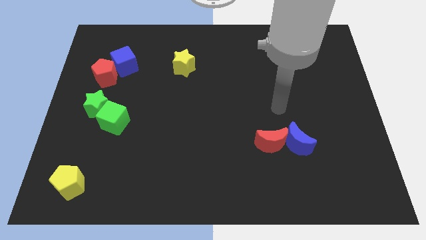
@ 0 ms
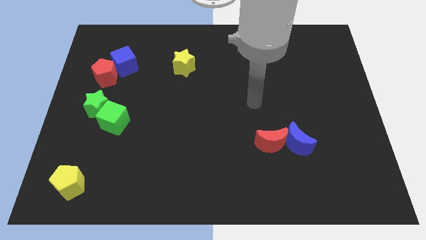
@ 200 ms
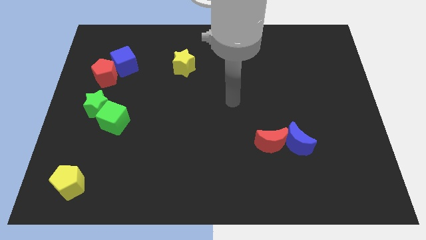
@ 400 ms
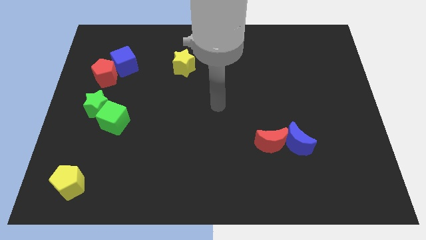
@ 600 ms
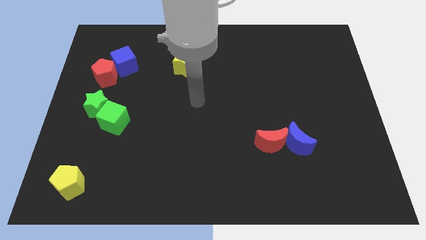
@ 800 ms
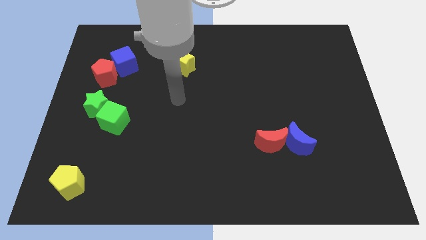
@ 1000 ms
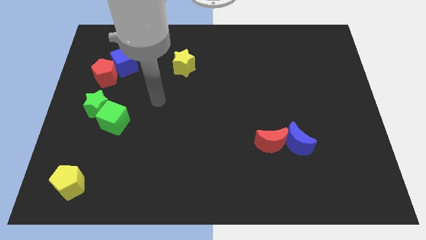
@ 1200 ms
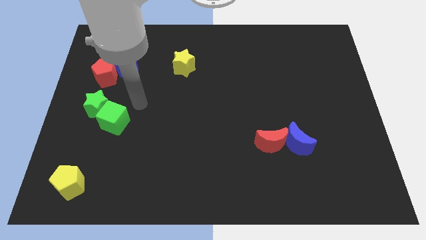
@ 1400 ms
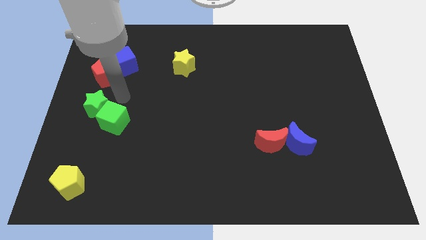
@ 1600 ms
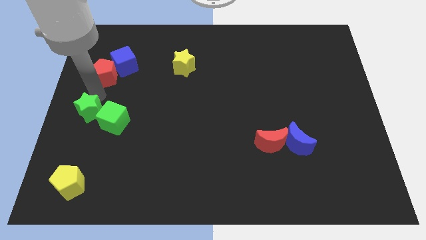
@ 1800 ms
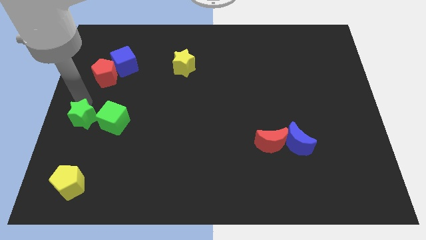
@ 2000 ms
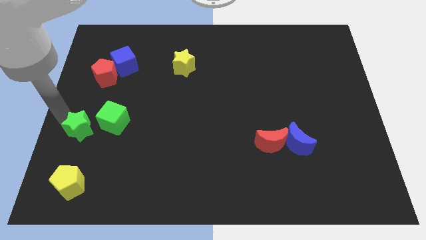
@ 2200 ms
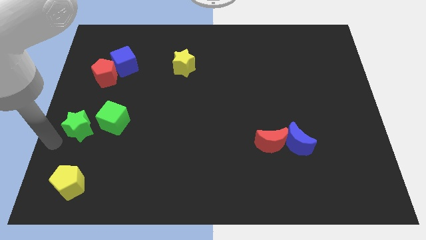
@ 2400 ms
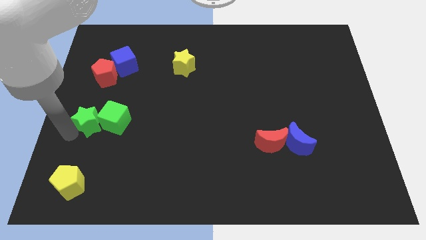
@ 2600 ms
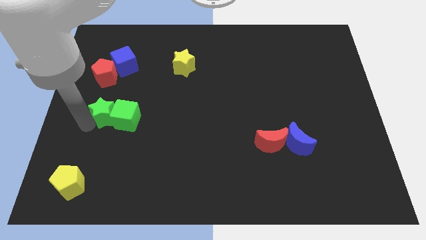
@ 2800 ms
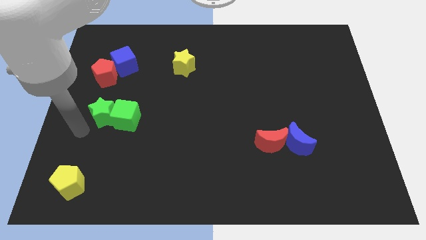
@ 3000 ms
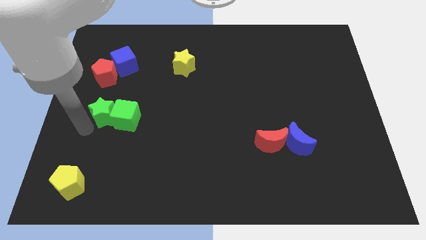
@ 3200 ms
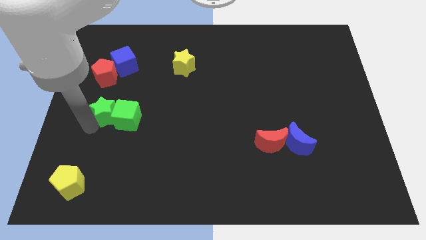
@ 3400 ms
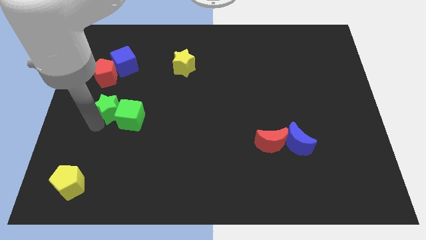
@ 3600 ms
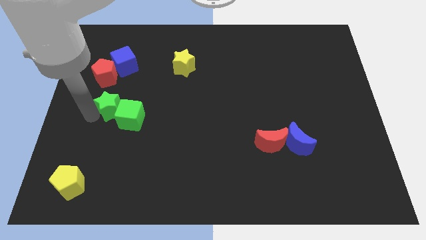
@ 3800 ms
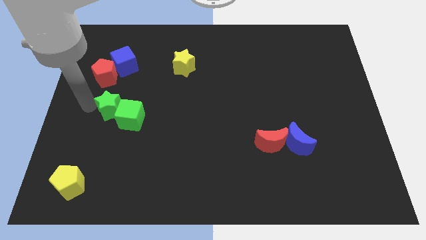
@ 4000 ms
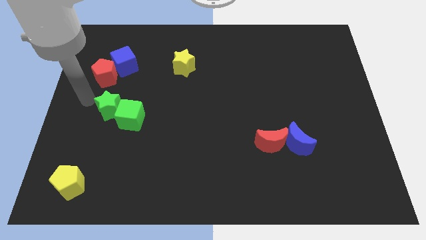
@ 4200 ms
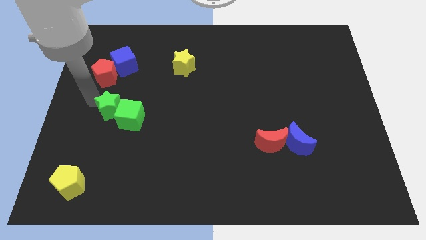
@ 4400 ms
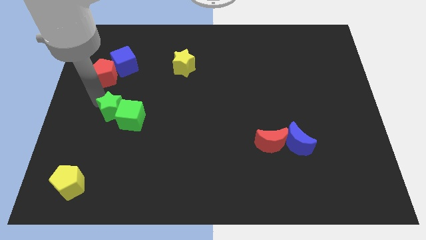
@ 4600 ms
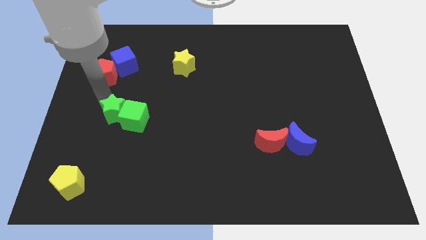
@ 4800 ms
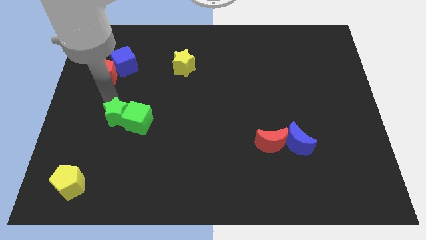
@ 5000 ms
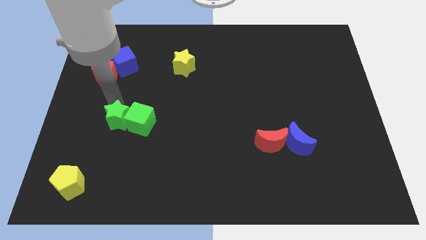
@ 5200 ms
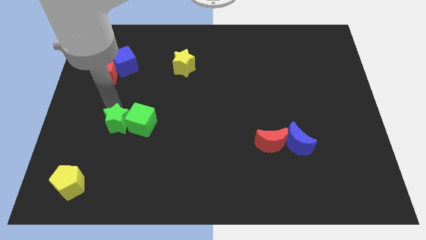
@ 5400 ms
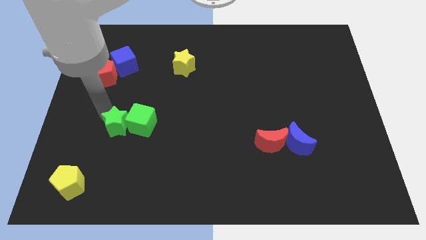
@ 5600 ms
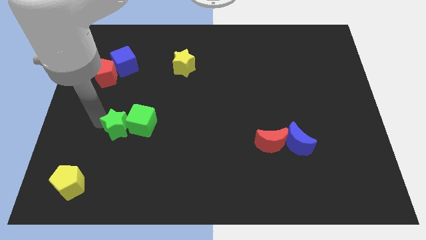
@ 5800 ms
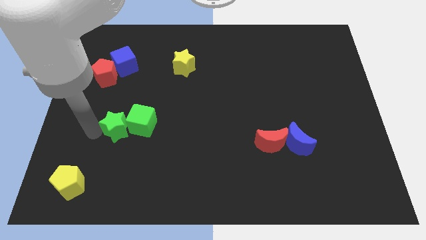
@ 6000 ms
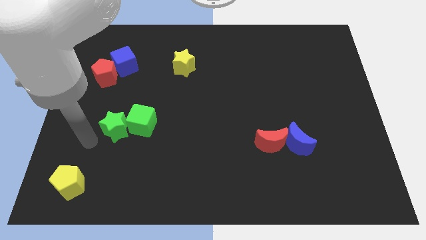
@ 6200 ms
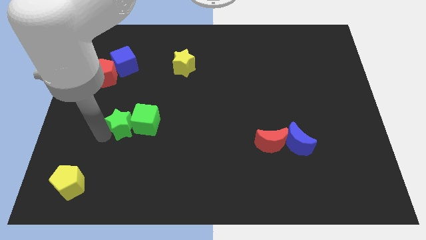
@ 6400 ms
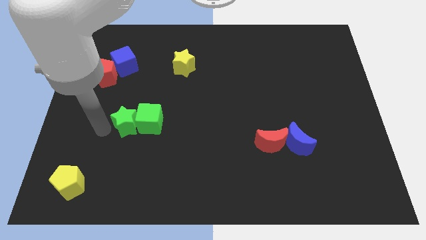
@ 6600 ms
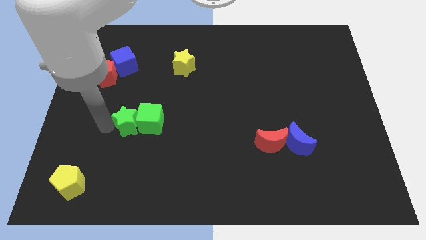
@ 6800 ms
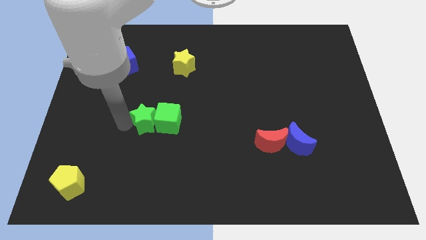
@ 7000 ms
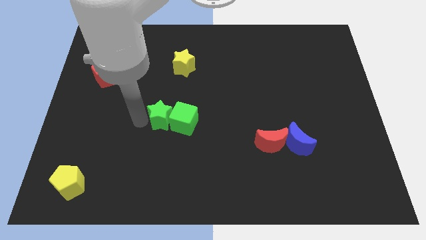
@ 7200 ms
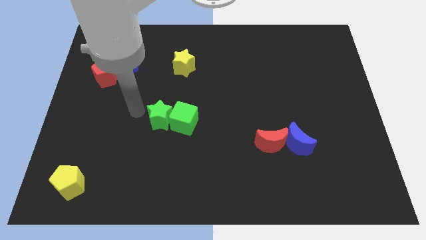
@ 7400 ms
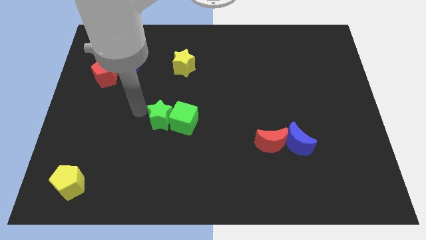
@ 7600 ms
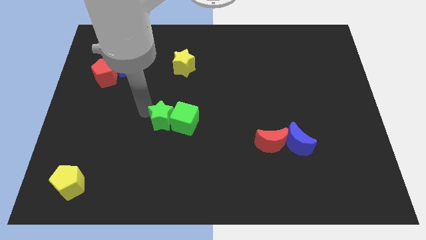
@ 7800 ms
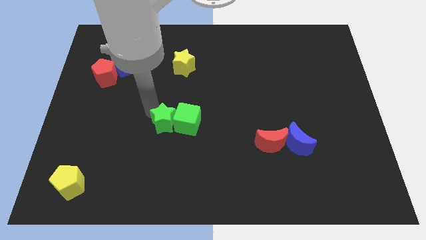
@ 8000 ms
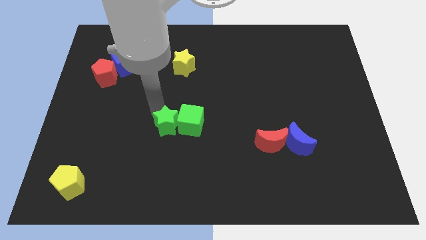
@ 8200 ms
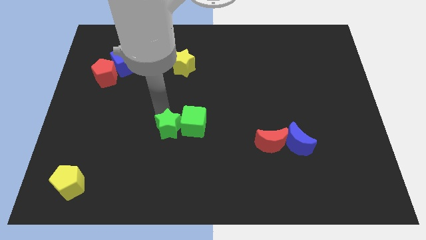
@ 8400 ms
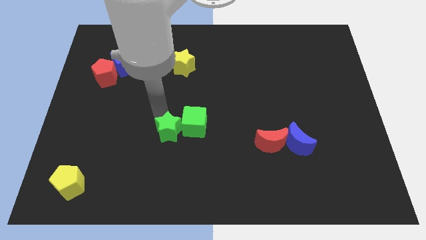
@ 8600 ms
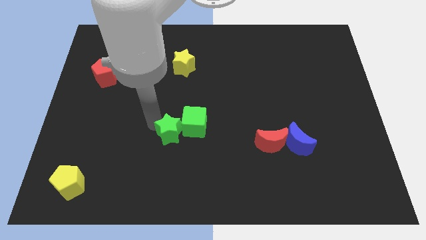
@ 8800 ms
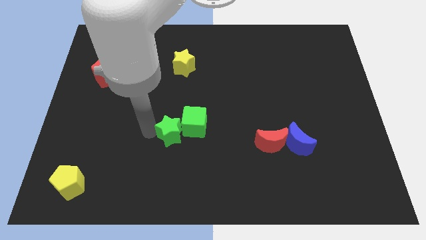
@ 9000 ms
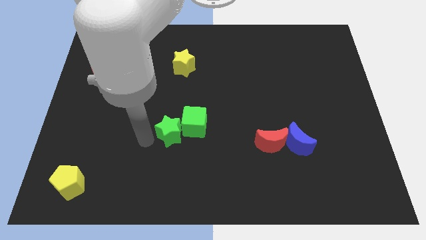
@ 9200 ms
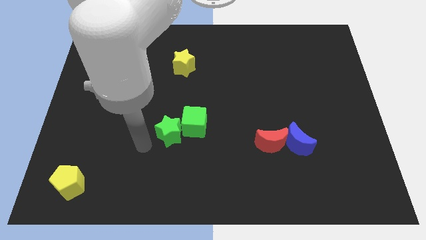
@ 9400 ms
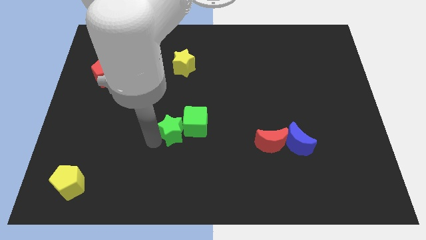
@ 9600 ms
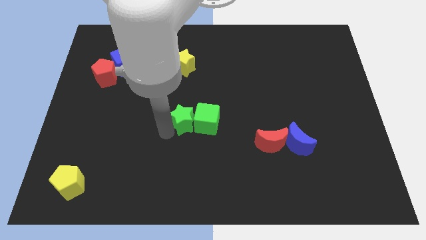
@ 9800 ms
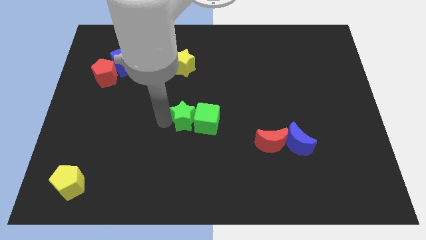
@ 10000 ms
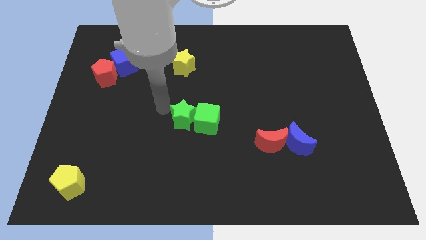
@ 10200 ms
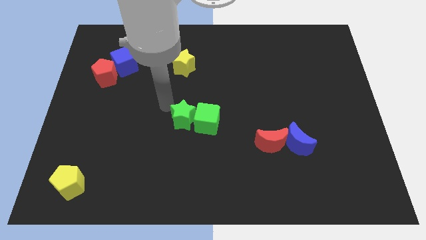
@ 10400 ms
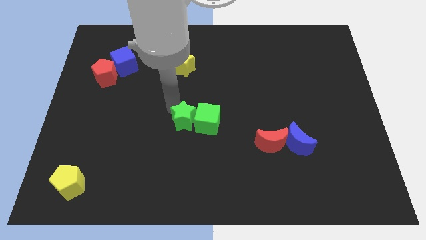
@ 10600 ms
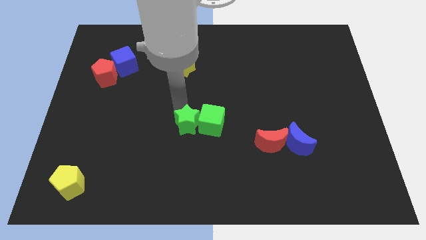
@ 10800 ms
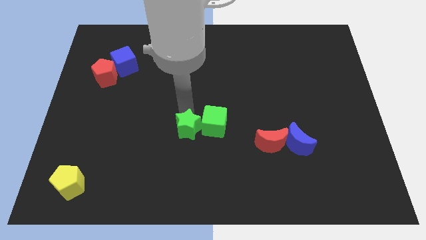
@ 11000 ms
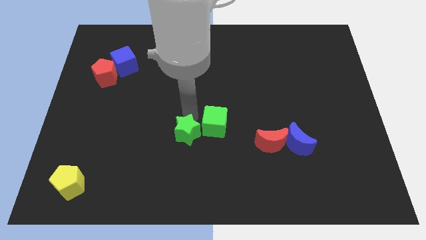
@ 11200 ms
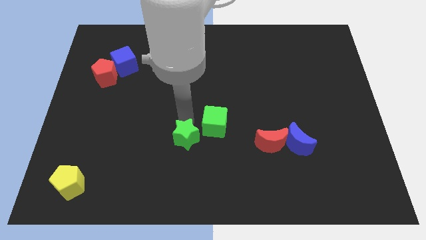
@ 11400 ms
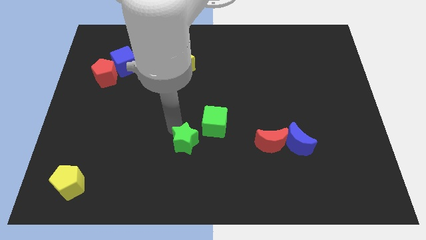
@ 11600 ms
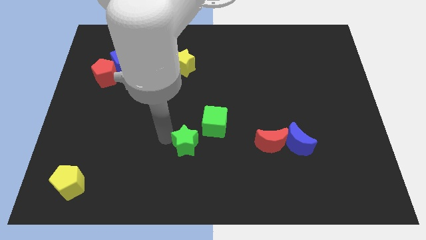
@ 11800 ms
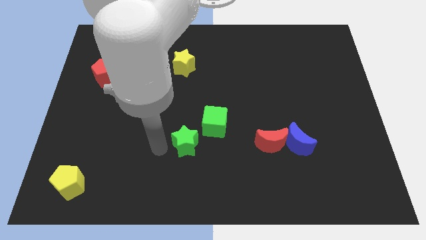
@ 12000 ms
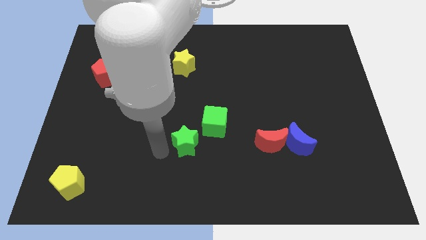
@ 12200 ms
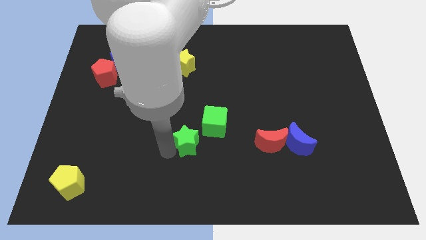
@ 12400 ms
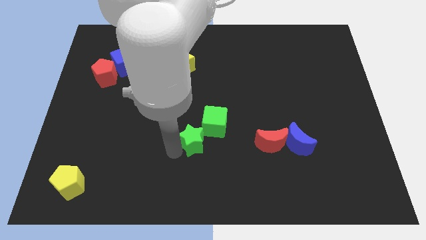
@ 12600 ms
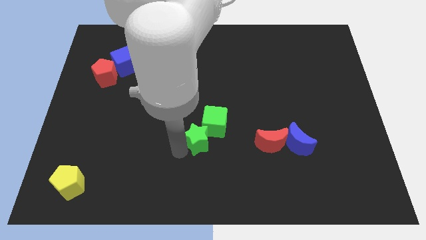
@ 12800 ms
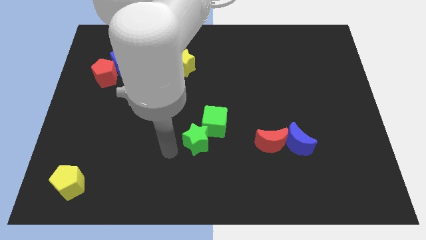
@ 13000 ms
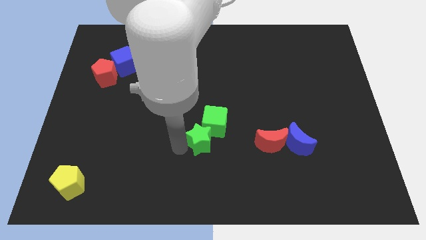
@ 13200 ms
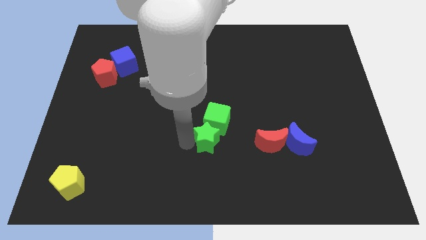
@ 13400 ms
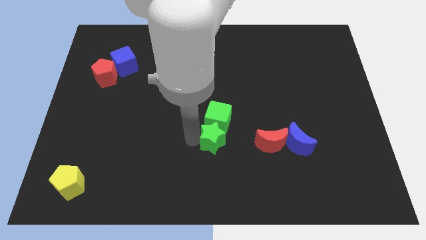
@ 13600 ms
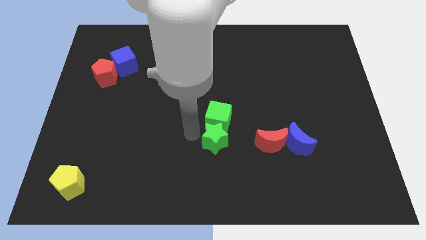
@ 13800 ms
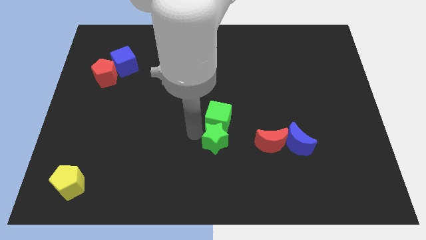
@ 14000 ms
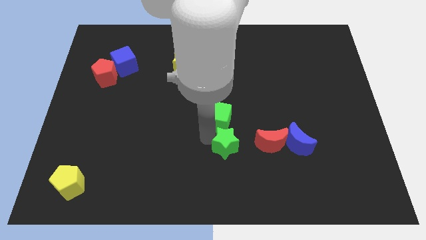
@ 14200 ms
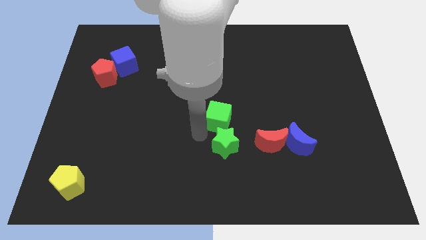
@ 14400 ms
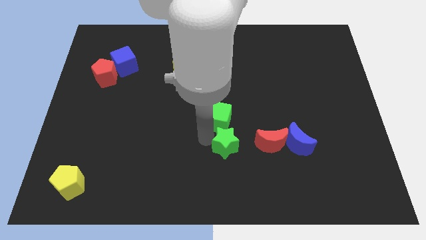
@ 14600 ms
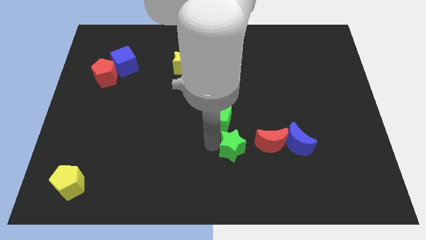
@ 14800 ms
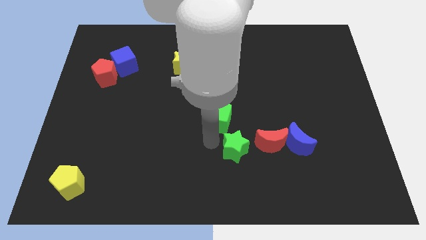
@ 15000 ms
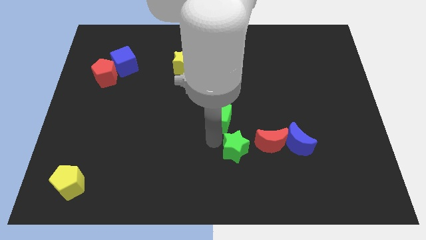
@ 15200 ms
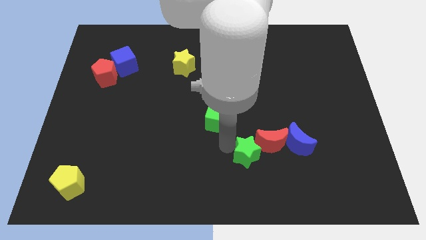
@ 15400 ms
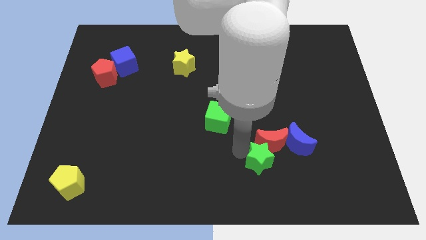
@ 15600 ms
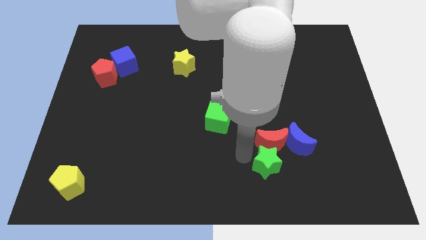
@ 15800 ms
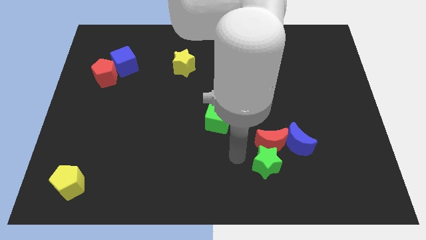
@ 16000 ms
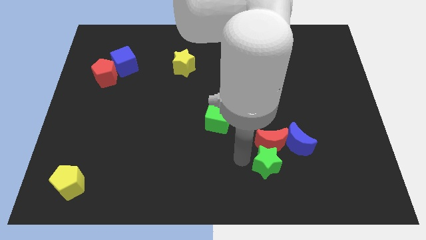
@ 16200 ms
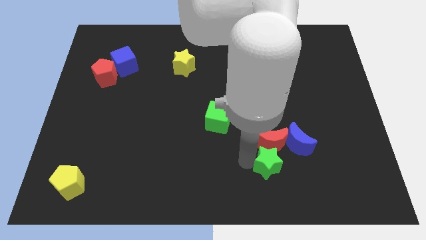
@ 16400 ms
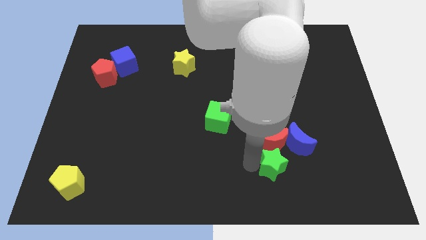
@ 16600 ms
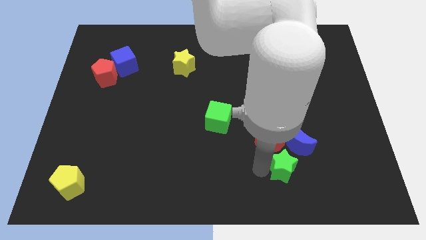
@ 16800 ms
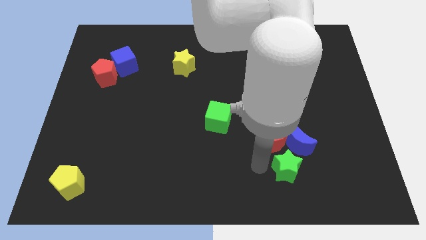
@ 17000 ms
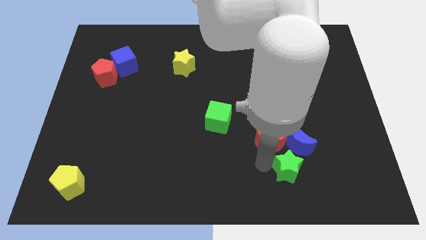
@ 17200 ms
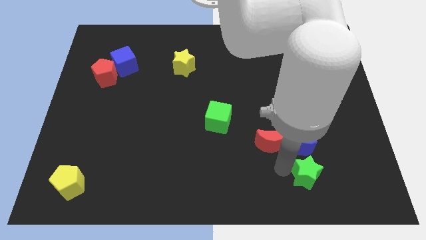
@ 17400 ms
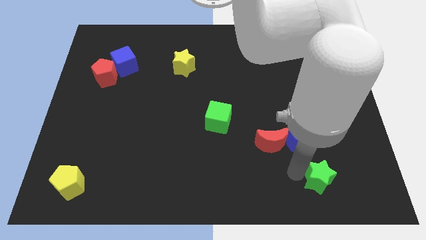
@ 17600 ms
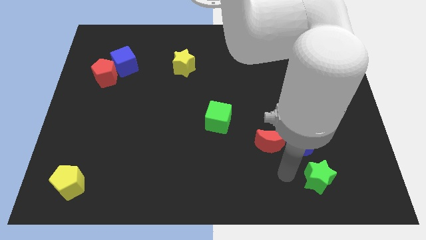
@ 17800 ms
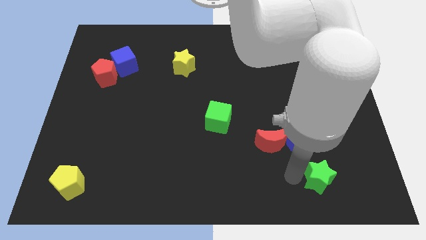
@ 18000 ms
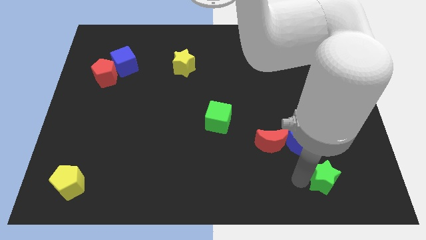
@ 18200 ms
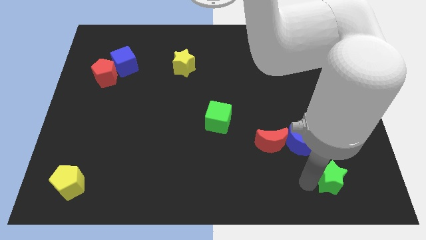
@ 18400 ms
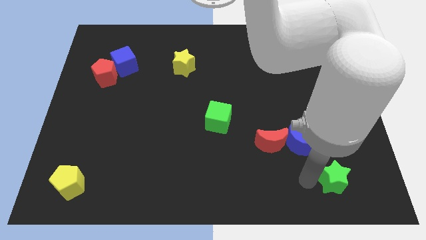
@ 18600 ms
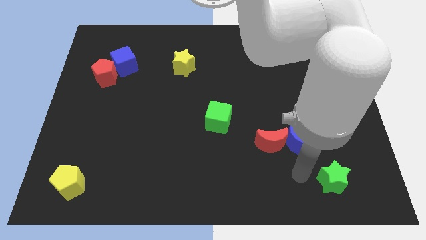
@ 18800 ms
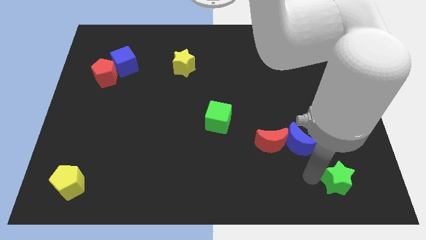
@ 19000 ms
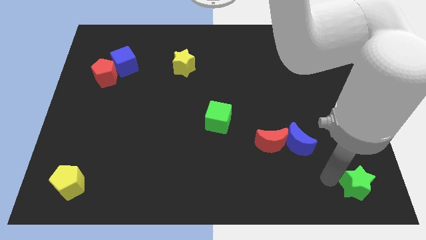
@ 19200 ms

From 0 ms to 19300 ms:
slide the green star to the bottom right of the board
